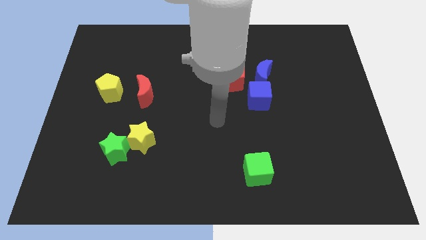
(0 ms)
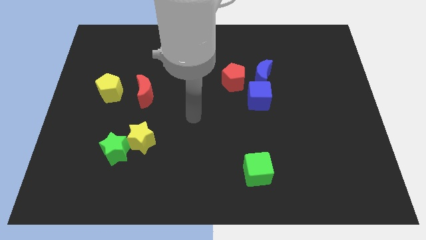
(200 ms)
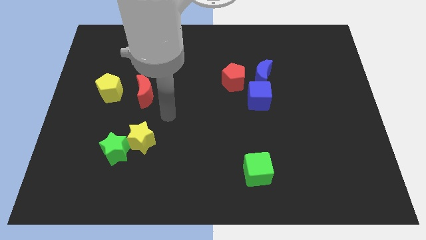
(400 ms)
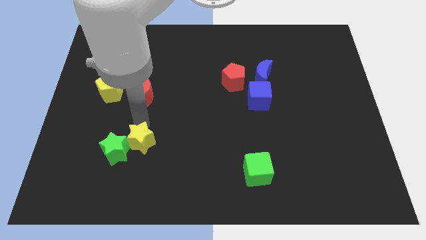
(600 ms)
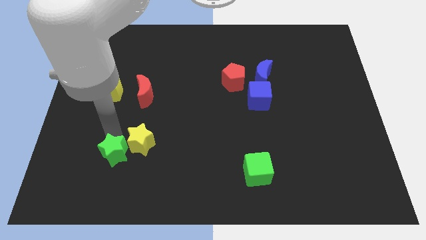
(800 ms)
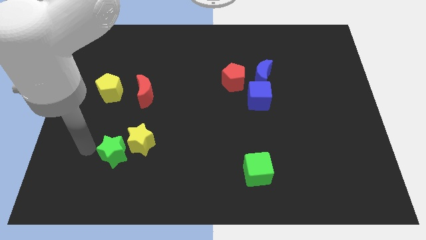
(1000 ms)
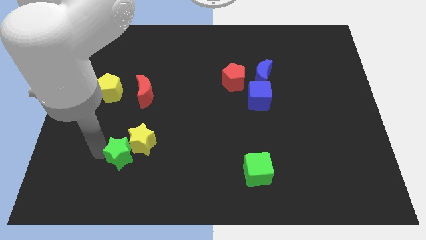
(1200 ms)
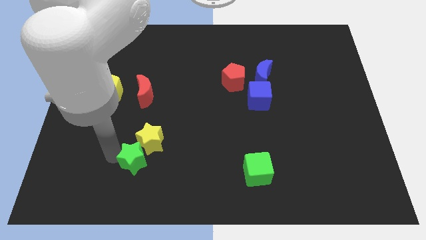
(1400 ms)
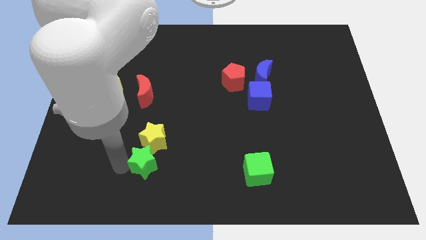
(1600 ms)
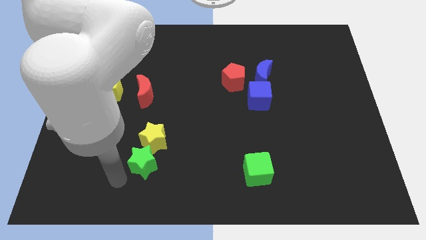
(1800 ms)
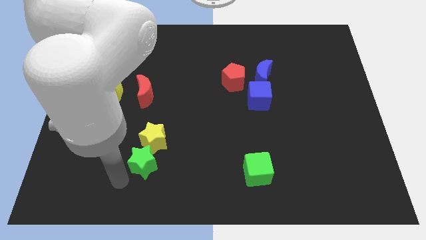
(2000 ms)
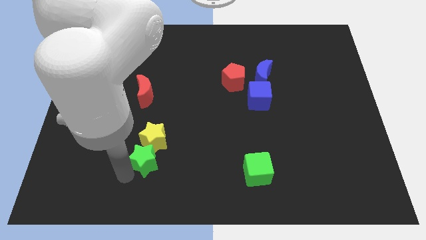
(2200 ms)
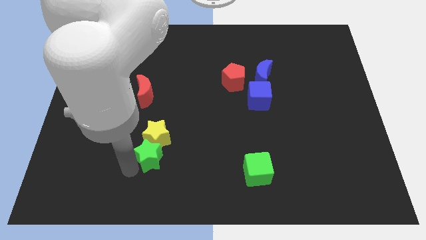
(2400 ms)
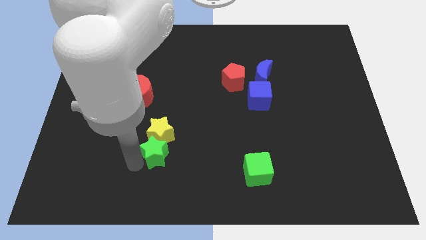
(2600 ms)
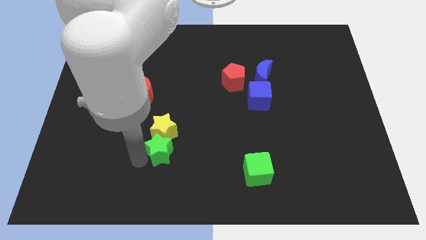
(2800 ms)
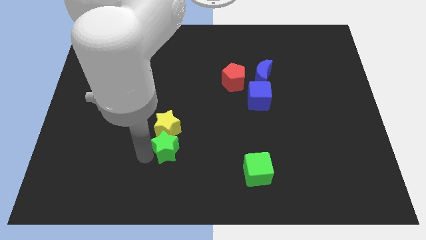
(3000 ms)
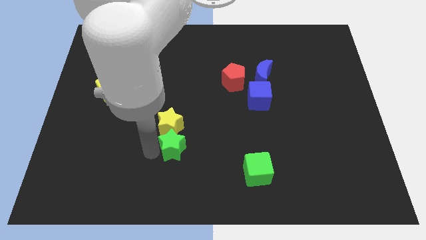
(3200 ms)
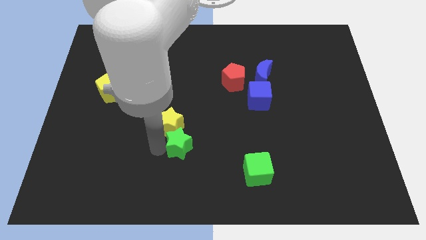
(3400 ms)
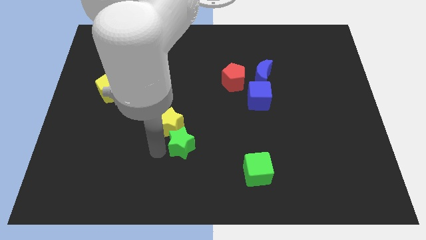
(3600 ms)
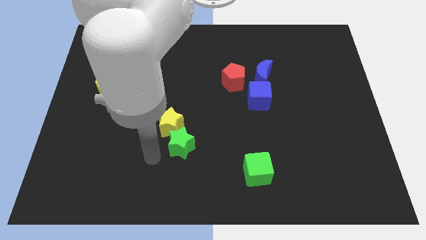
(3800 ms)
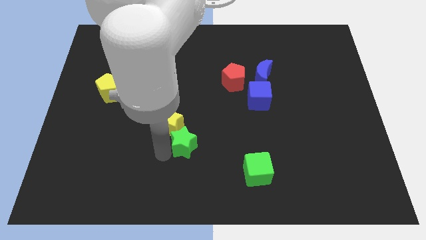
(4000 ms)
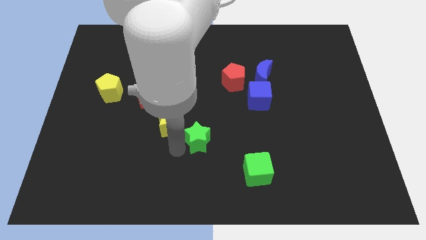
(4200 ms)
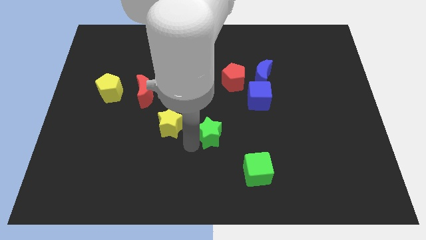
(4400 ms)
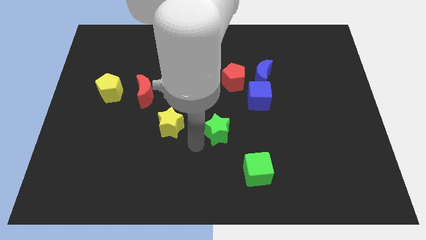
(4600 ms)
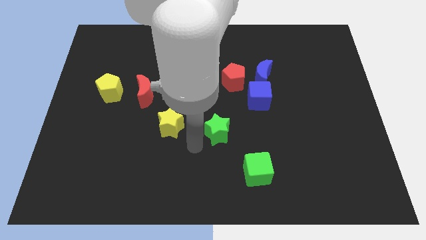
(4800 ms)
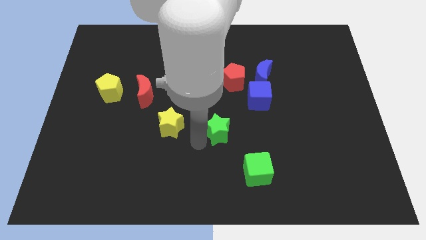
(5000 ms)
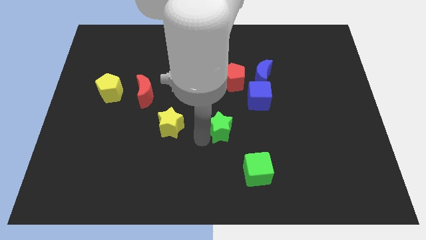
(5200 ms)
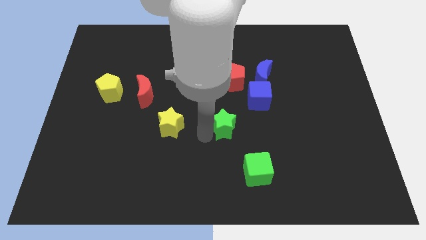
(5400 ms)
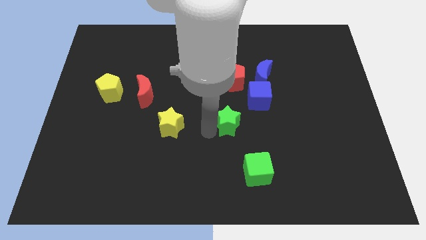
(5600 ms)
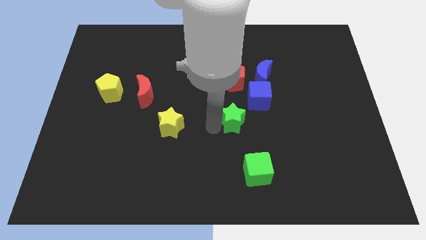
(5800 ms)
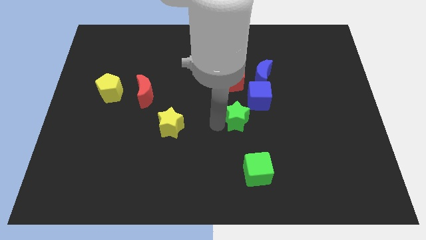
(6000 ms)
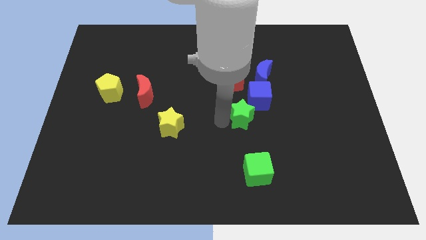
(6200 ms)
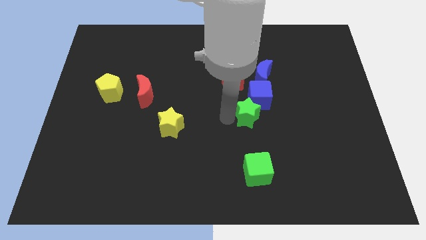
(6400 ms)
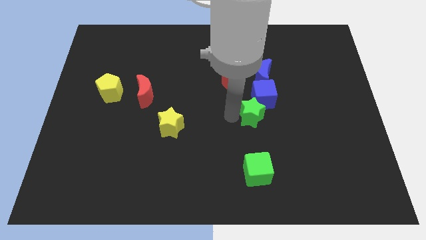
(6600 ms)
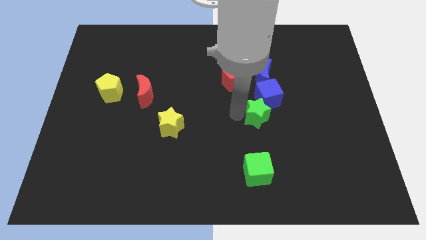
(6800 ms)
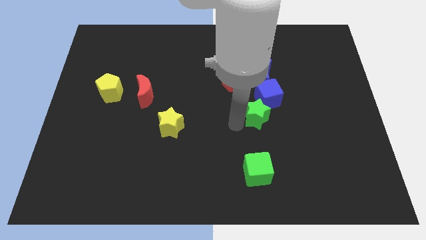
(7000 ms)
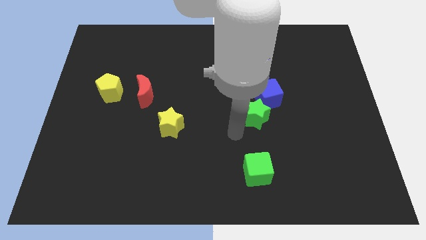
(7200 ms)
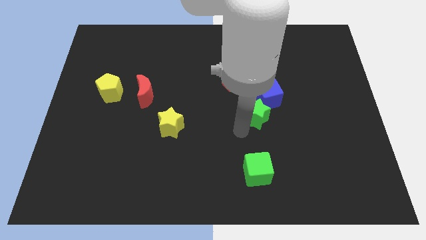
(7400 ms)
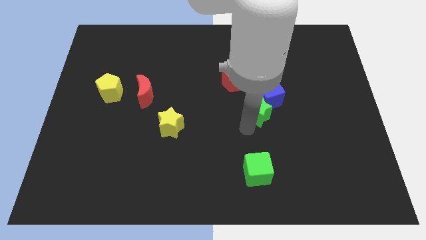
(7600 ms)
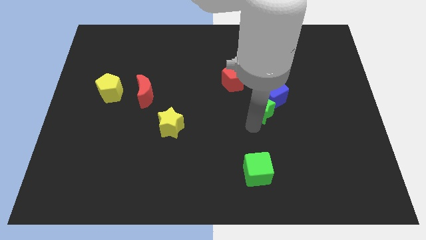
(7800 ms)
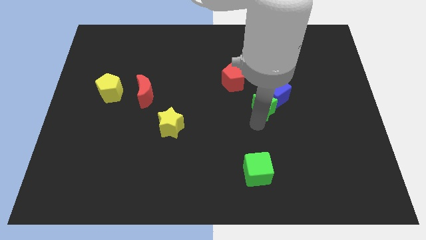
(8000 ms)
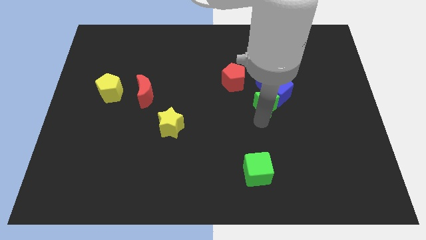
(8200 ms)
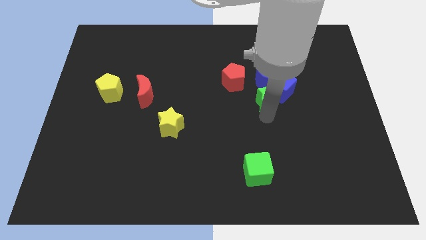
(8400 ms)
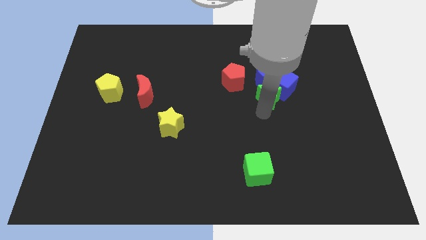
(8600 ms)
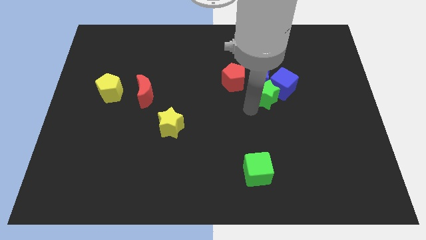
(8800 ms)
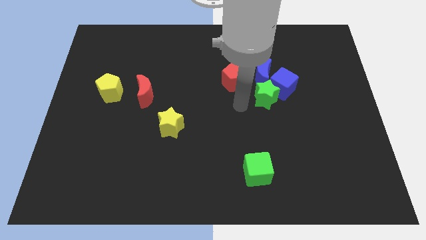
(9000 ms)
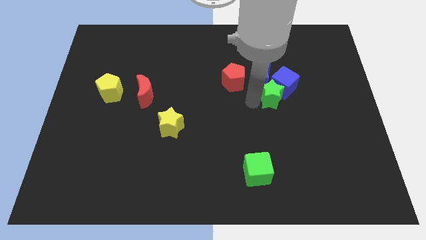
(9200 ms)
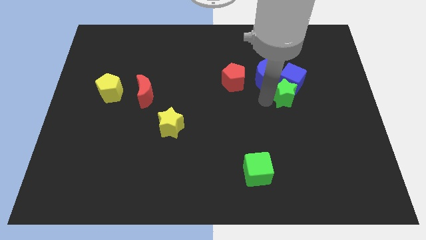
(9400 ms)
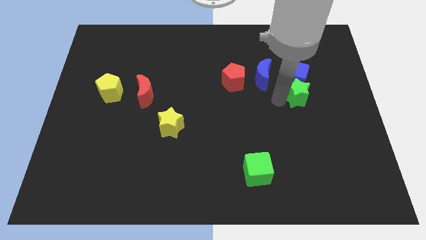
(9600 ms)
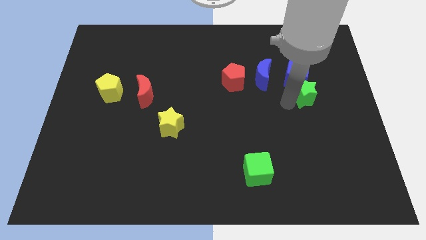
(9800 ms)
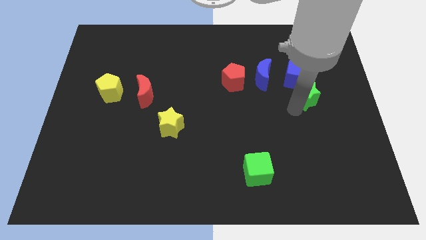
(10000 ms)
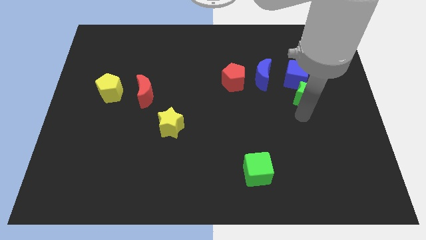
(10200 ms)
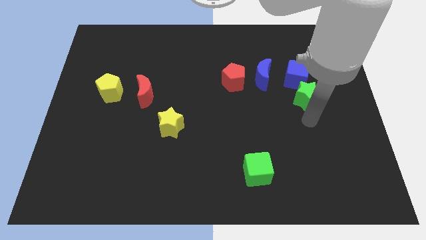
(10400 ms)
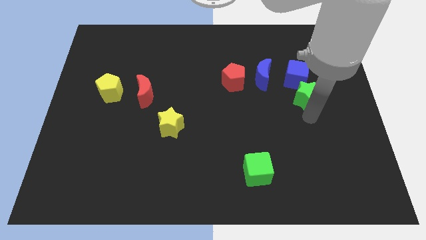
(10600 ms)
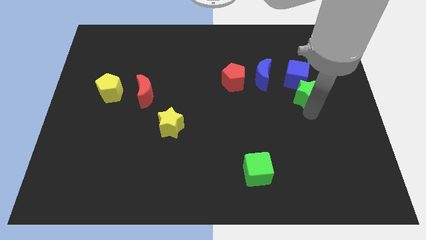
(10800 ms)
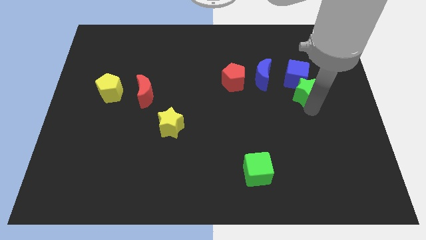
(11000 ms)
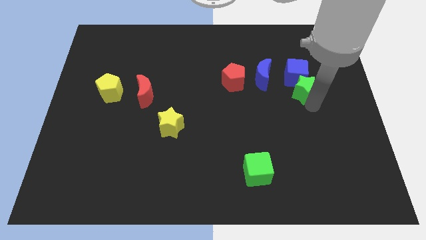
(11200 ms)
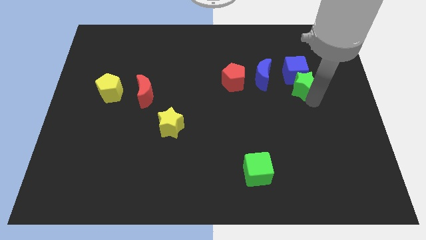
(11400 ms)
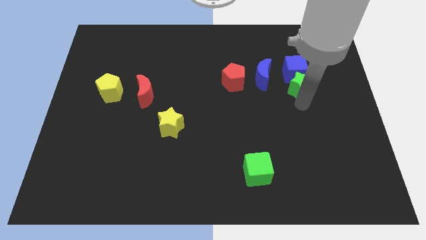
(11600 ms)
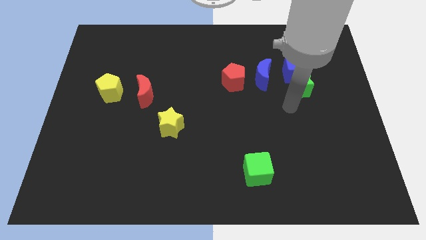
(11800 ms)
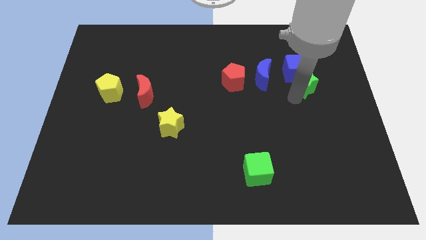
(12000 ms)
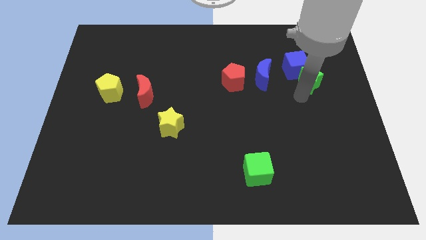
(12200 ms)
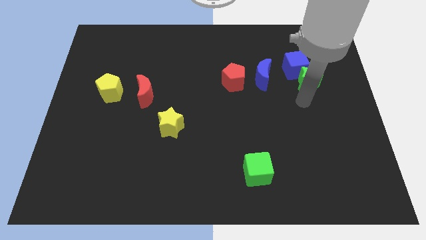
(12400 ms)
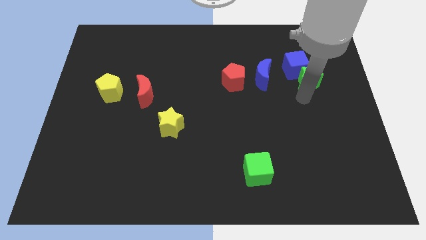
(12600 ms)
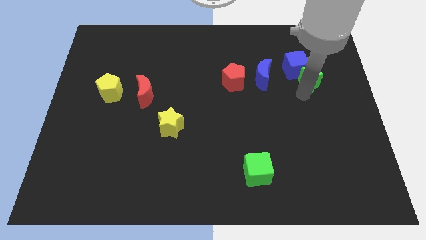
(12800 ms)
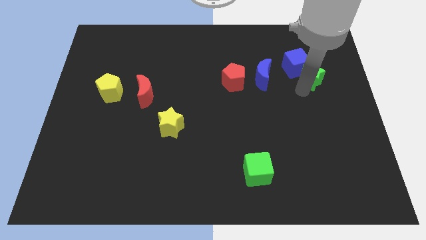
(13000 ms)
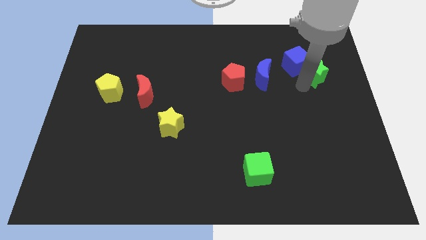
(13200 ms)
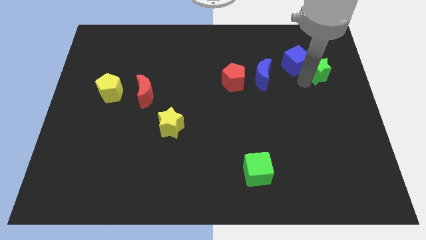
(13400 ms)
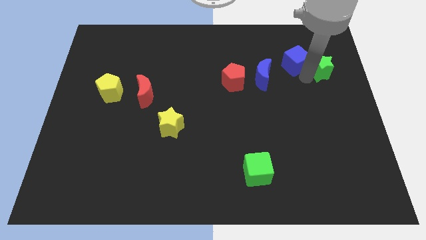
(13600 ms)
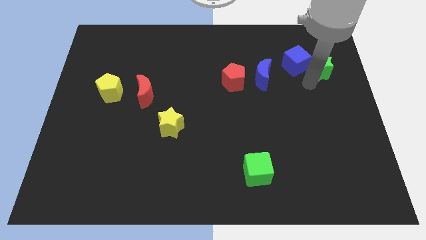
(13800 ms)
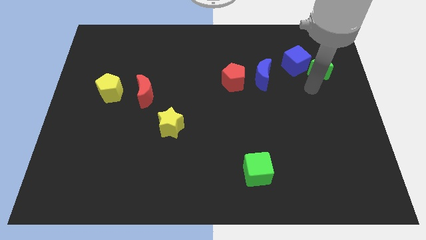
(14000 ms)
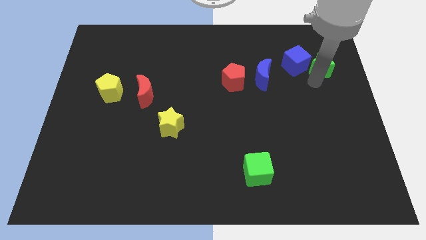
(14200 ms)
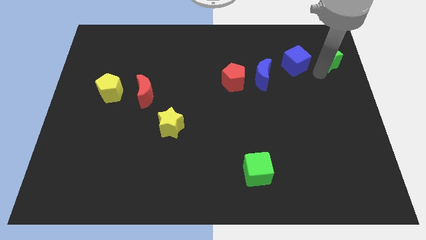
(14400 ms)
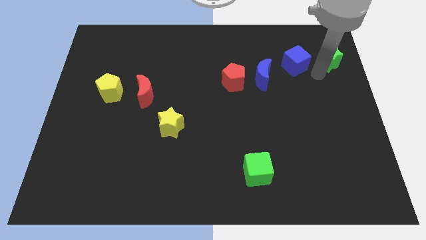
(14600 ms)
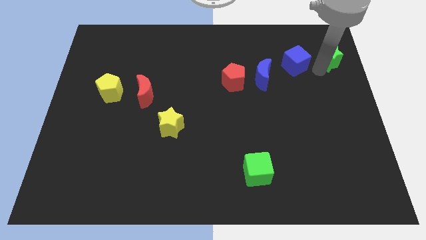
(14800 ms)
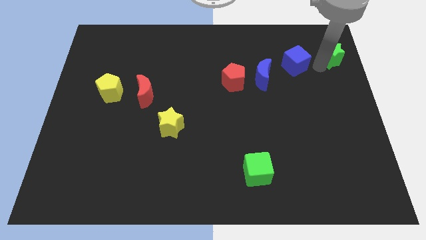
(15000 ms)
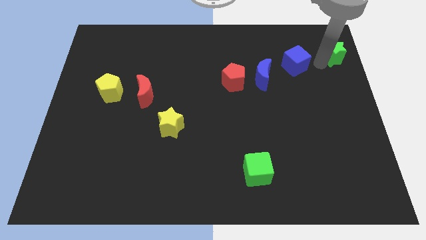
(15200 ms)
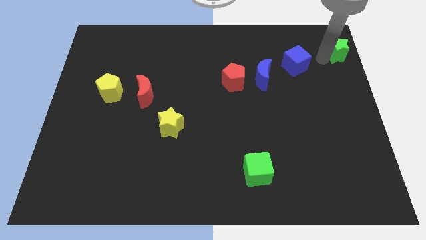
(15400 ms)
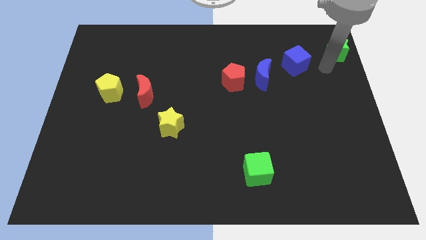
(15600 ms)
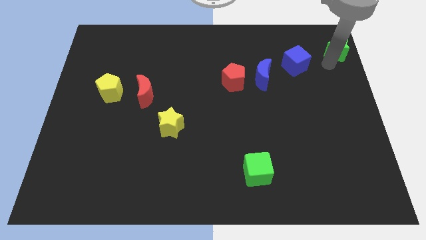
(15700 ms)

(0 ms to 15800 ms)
push the green star to the top right
